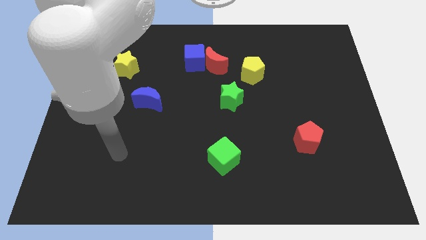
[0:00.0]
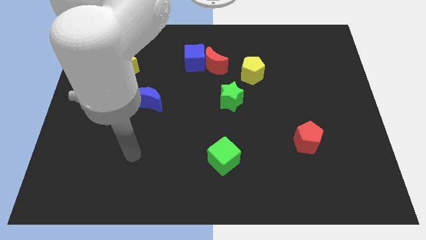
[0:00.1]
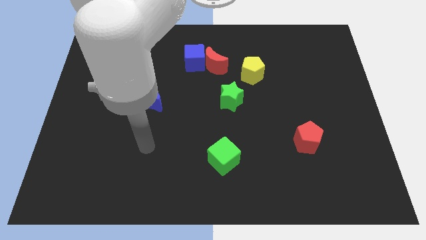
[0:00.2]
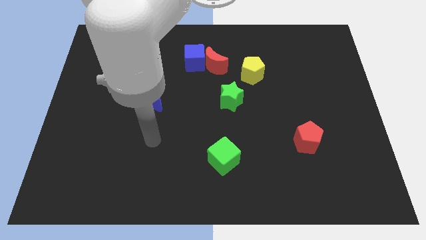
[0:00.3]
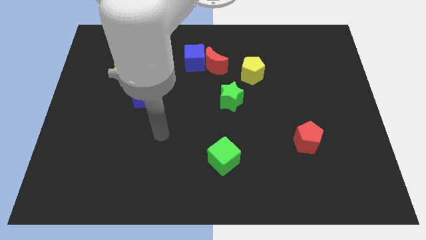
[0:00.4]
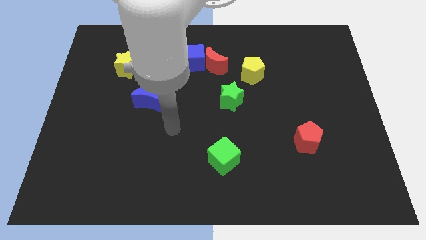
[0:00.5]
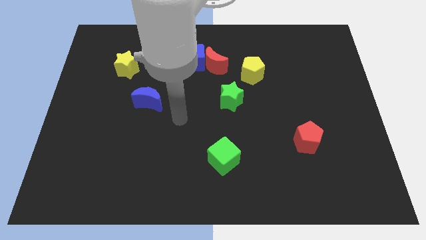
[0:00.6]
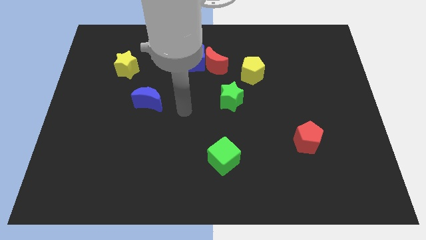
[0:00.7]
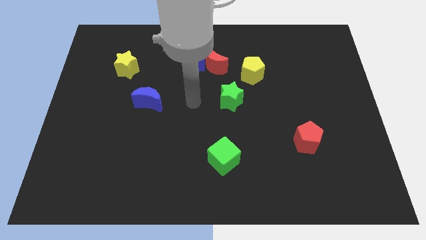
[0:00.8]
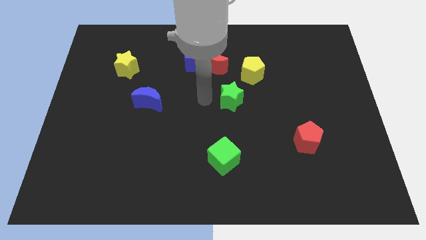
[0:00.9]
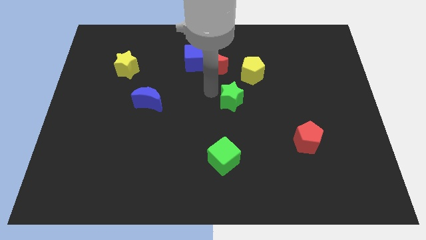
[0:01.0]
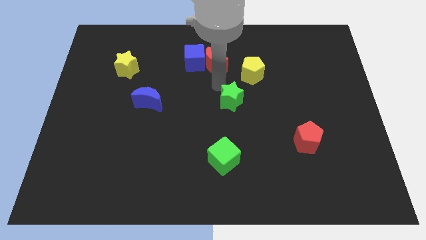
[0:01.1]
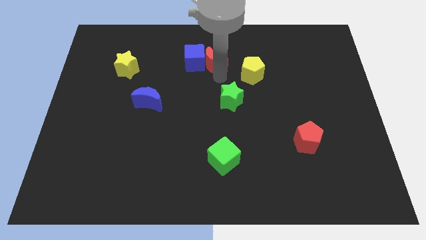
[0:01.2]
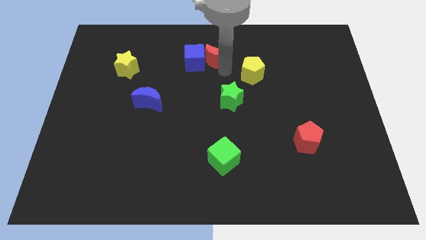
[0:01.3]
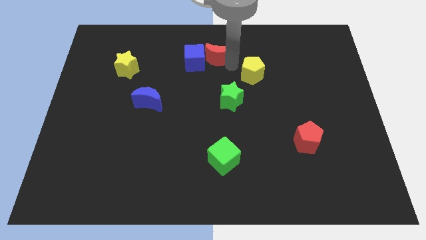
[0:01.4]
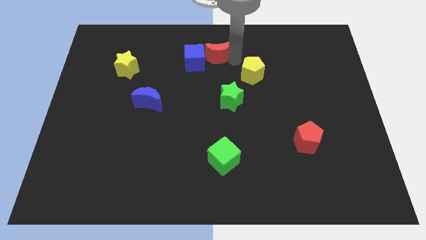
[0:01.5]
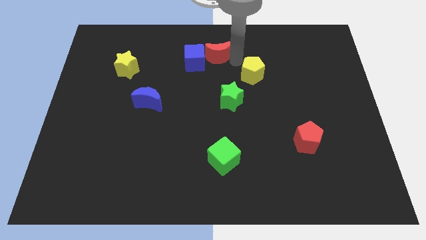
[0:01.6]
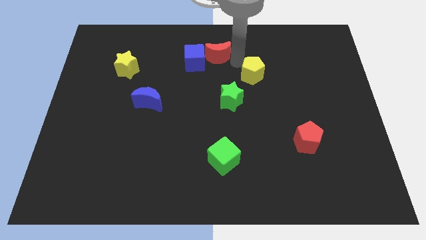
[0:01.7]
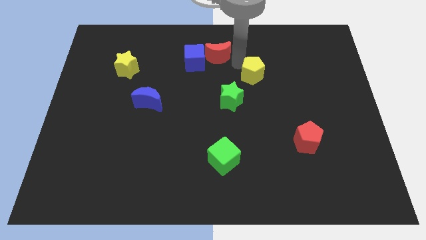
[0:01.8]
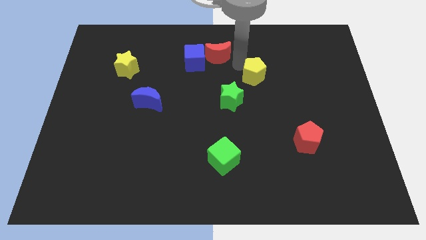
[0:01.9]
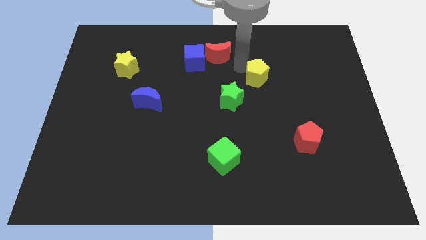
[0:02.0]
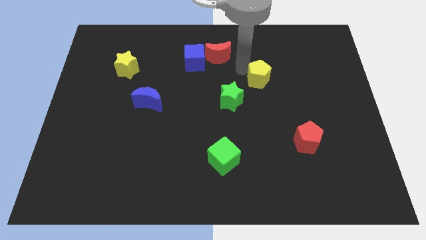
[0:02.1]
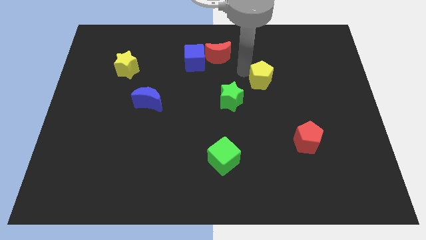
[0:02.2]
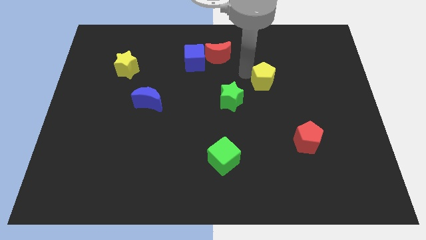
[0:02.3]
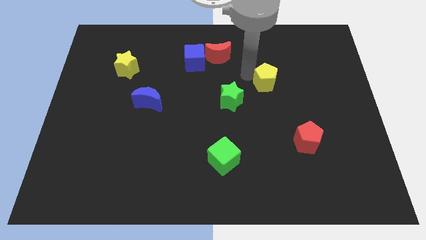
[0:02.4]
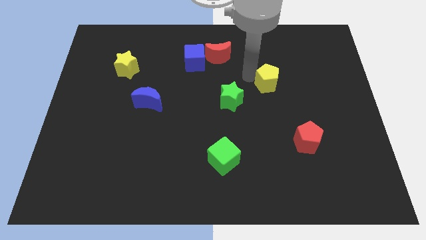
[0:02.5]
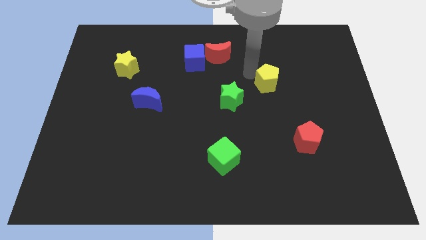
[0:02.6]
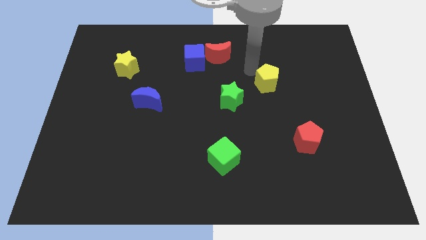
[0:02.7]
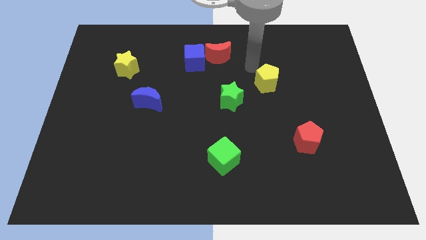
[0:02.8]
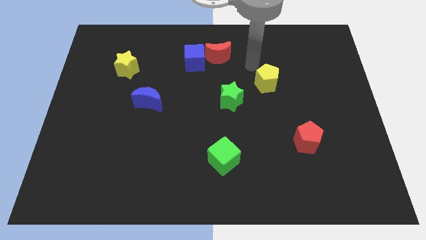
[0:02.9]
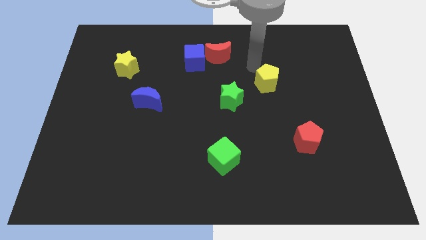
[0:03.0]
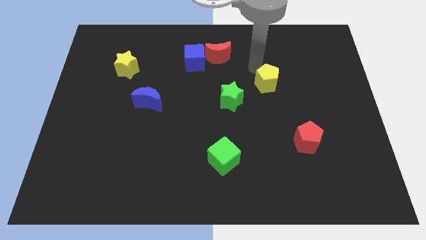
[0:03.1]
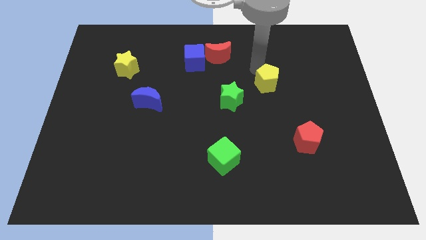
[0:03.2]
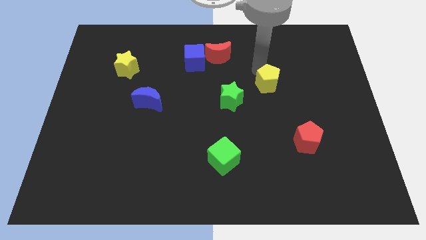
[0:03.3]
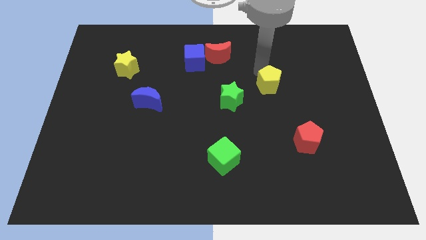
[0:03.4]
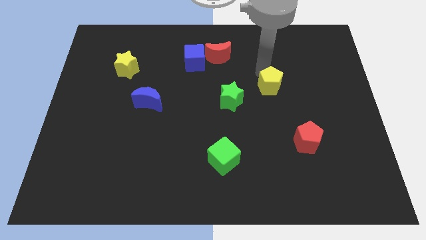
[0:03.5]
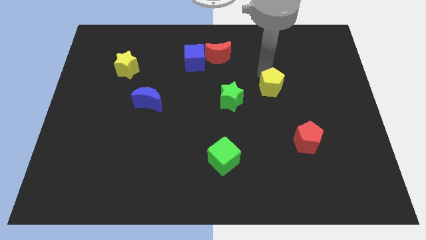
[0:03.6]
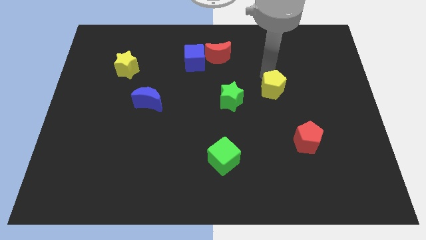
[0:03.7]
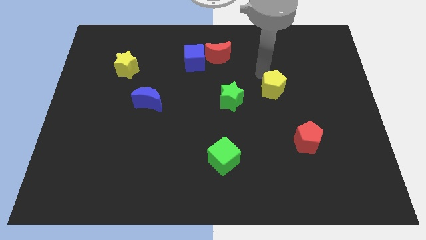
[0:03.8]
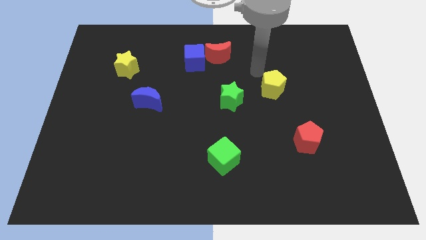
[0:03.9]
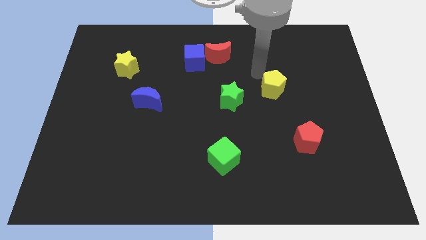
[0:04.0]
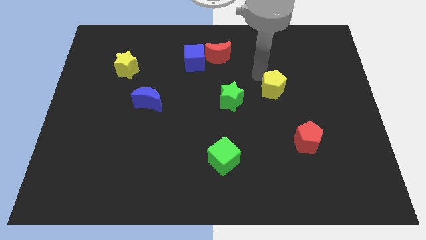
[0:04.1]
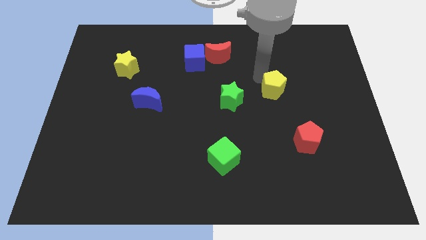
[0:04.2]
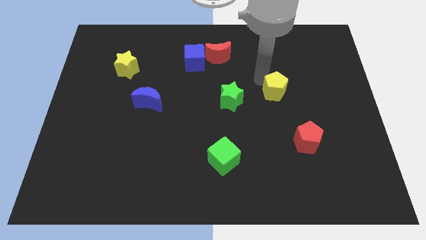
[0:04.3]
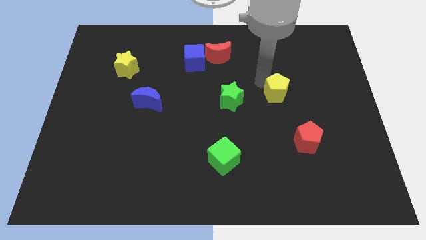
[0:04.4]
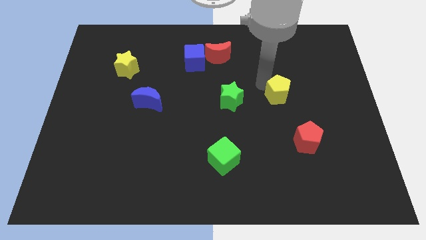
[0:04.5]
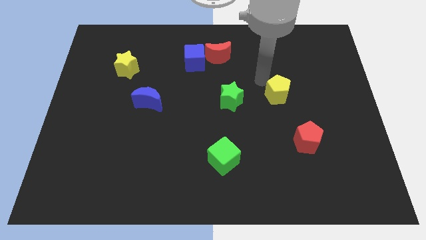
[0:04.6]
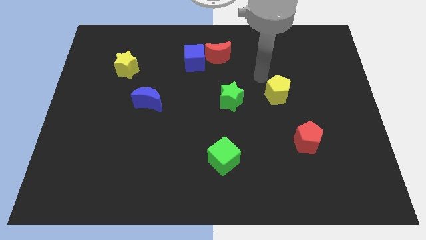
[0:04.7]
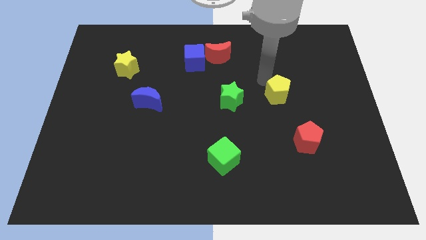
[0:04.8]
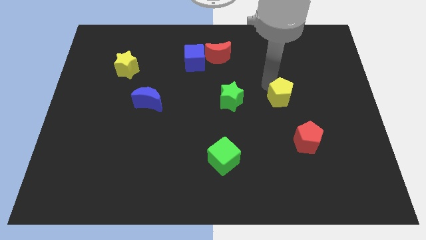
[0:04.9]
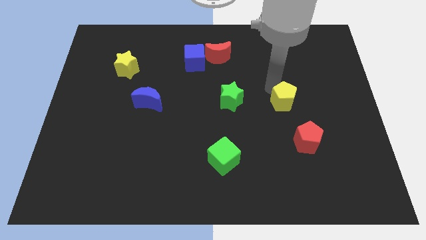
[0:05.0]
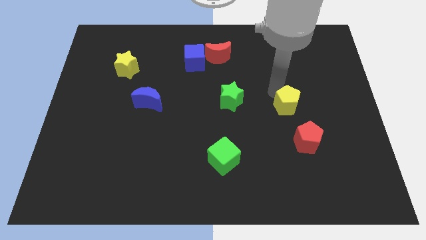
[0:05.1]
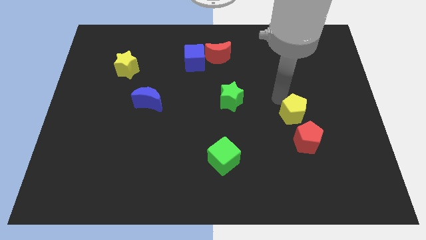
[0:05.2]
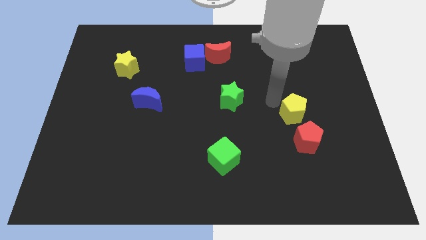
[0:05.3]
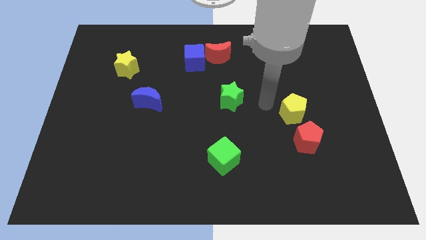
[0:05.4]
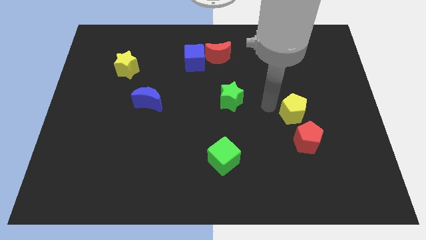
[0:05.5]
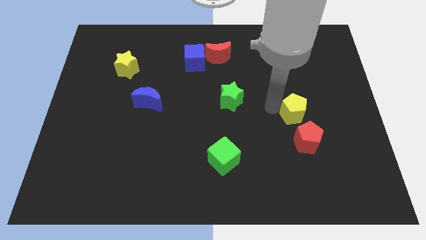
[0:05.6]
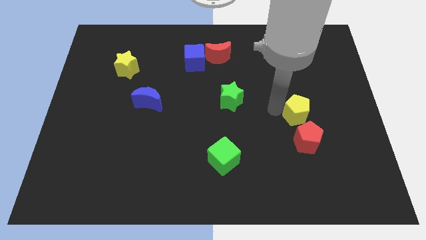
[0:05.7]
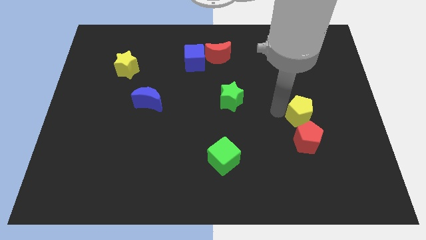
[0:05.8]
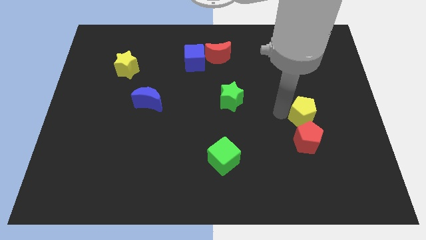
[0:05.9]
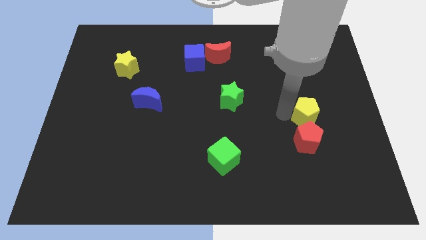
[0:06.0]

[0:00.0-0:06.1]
push the yellow pentagon diagonally up and to the right of the red pentagon

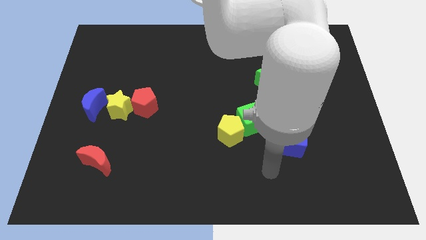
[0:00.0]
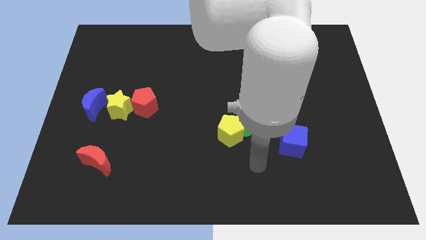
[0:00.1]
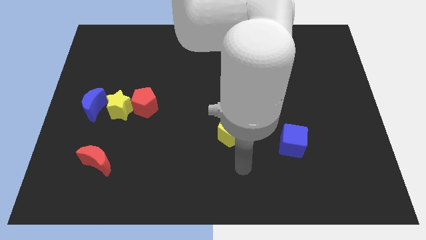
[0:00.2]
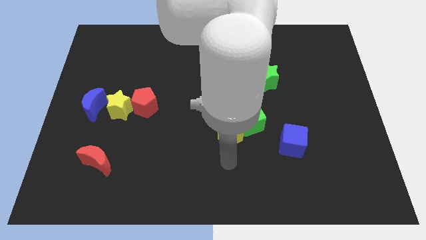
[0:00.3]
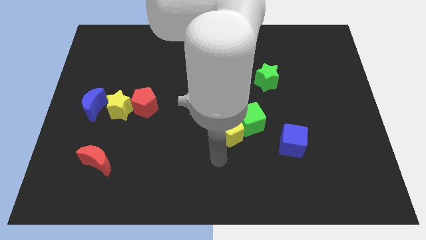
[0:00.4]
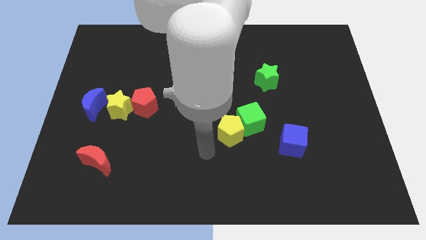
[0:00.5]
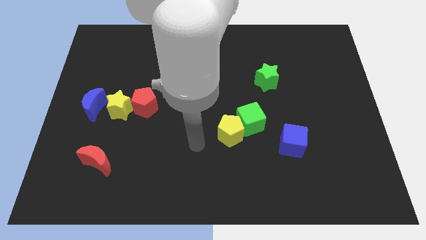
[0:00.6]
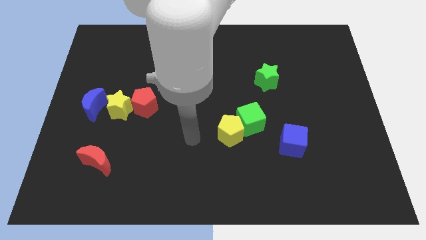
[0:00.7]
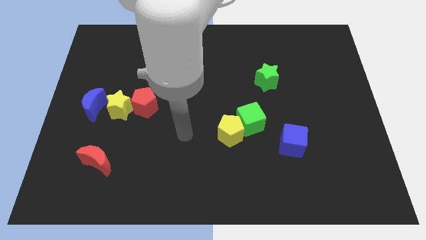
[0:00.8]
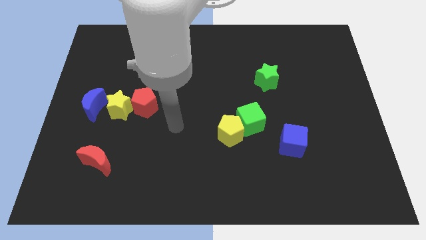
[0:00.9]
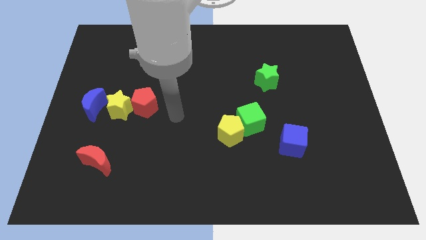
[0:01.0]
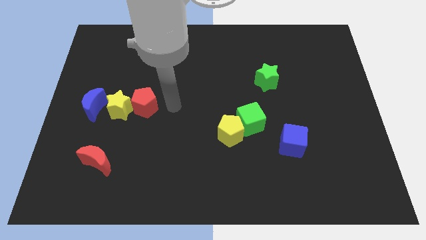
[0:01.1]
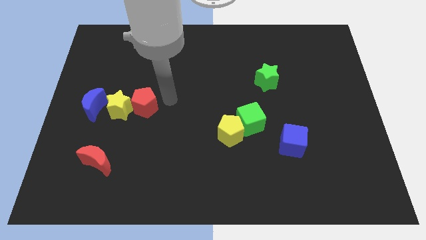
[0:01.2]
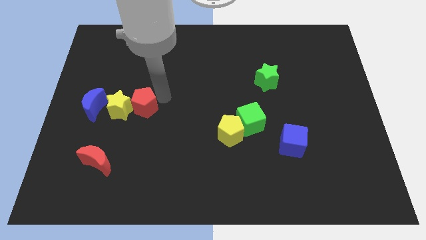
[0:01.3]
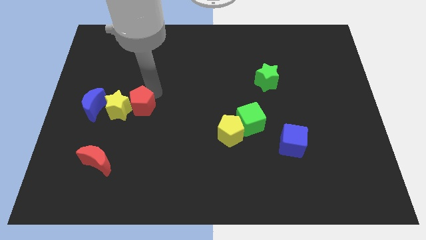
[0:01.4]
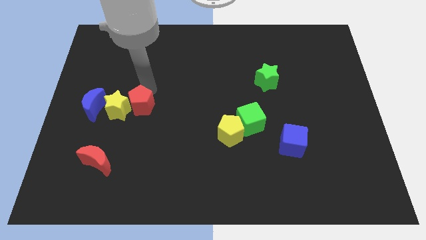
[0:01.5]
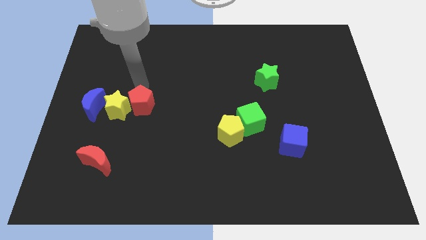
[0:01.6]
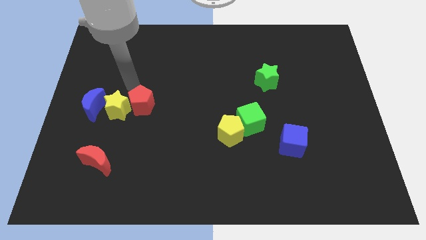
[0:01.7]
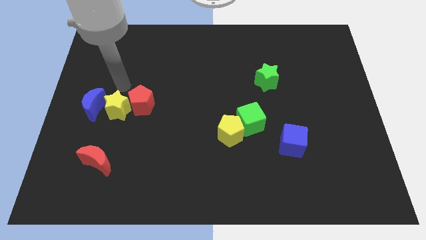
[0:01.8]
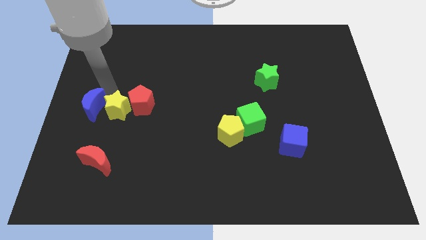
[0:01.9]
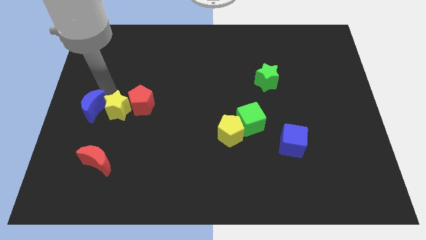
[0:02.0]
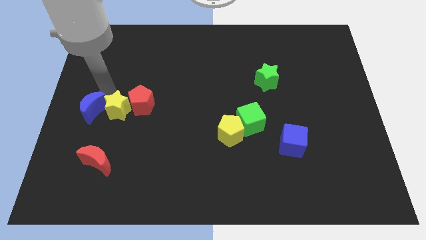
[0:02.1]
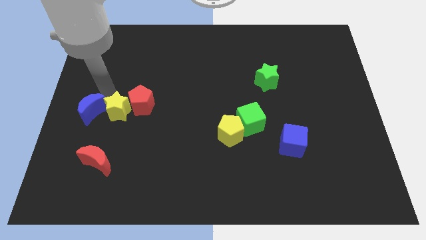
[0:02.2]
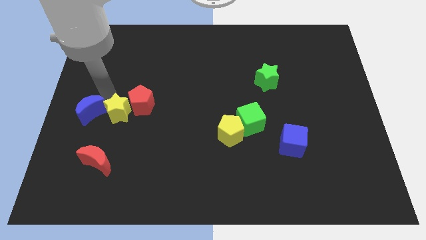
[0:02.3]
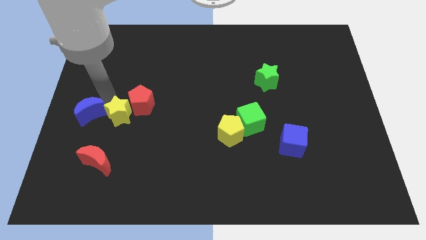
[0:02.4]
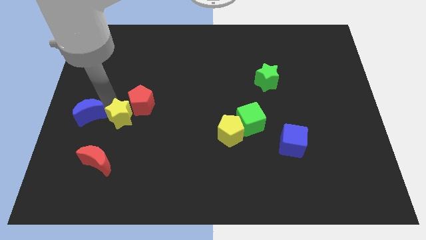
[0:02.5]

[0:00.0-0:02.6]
put the yellow star to the bottom of the red pentagon
